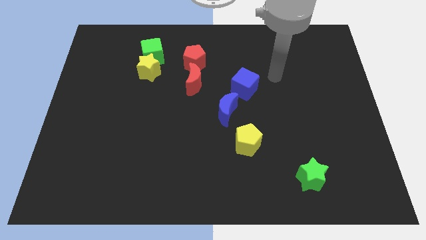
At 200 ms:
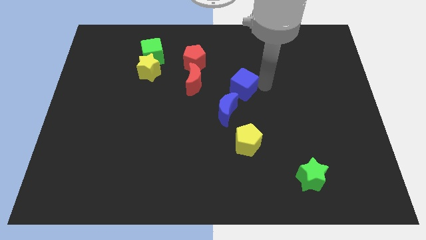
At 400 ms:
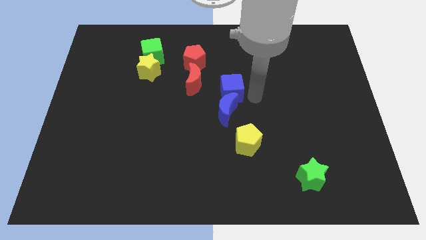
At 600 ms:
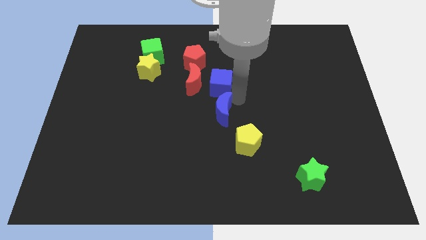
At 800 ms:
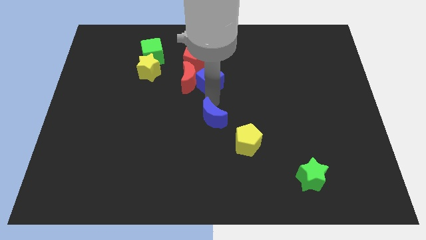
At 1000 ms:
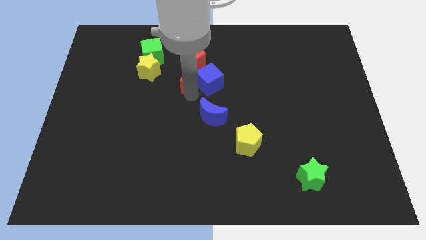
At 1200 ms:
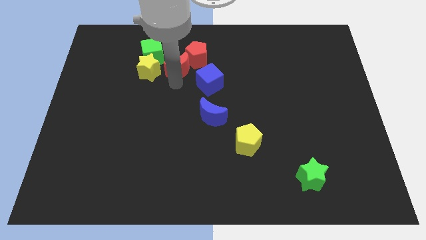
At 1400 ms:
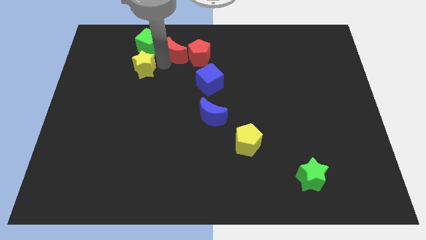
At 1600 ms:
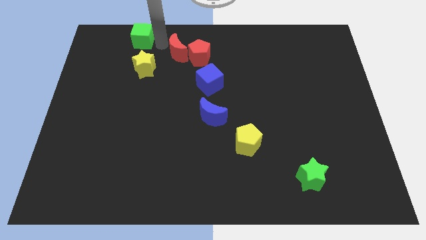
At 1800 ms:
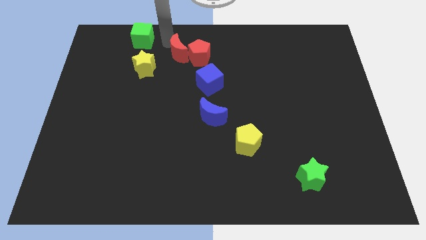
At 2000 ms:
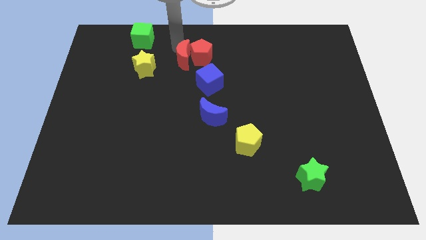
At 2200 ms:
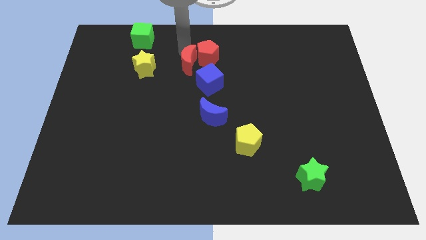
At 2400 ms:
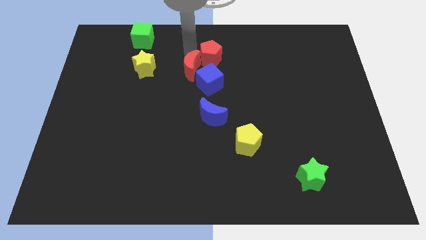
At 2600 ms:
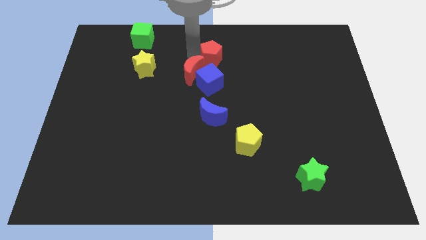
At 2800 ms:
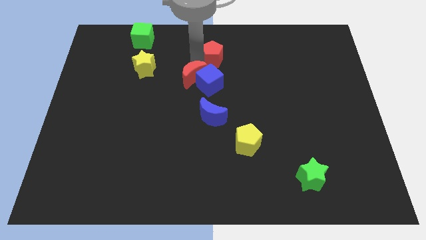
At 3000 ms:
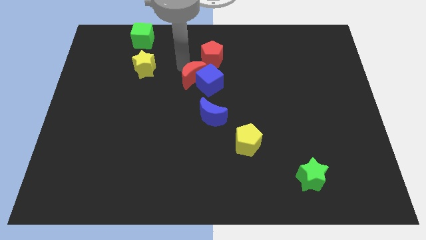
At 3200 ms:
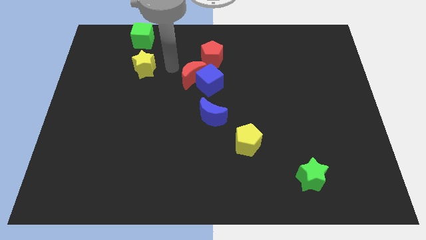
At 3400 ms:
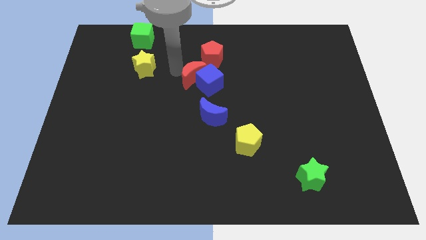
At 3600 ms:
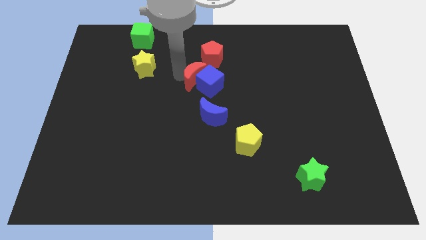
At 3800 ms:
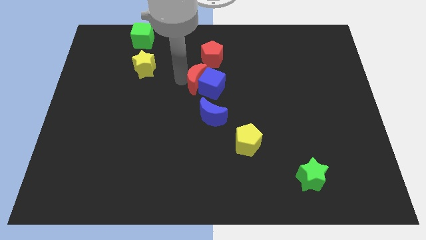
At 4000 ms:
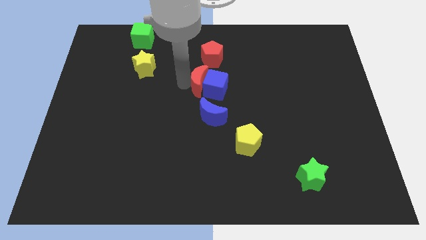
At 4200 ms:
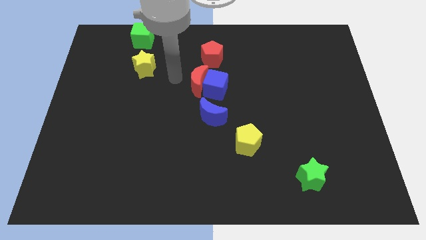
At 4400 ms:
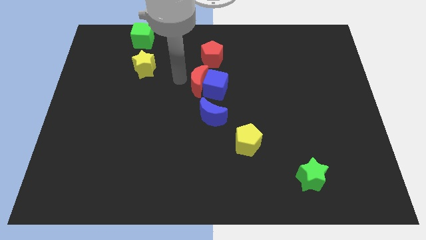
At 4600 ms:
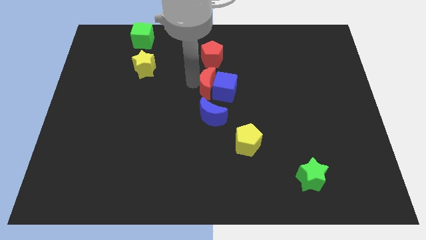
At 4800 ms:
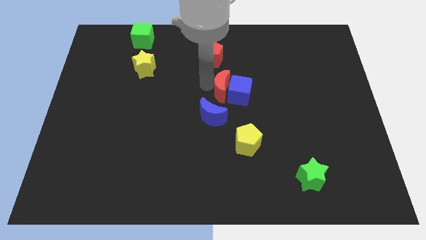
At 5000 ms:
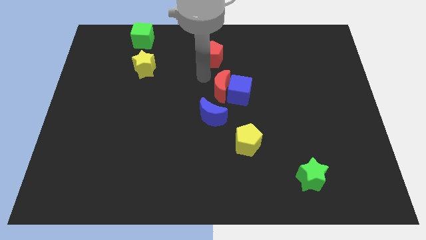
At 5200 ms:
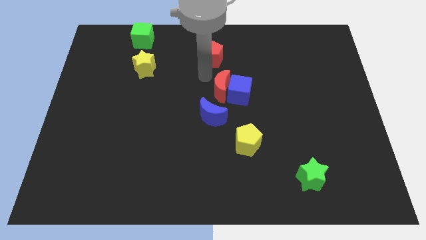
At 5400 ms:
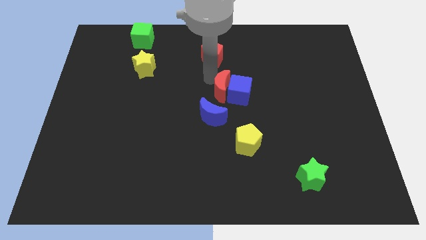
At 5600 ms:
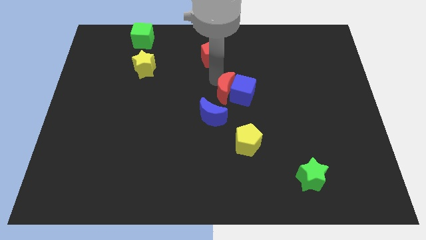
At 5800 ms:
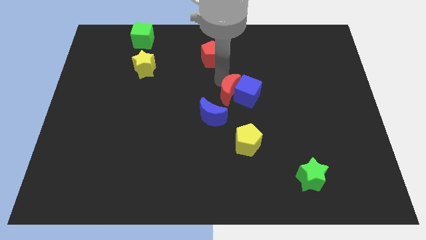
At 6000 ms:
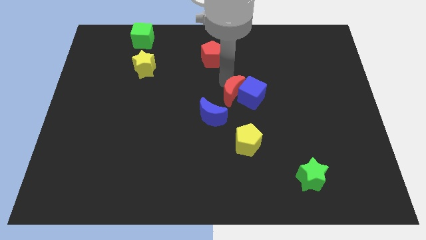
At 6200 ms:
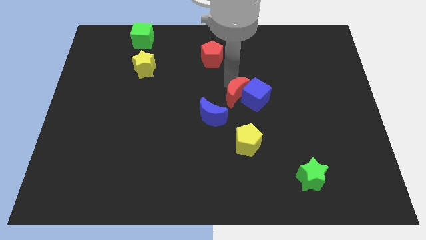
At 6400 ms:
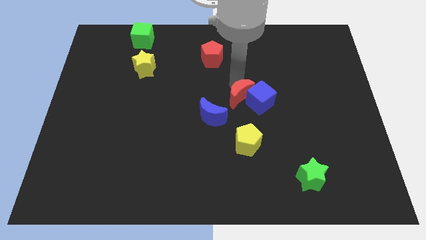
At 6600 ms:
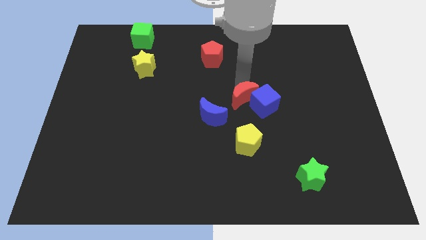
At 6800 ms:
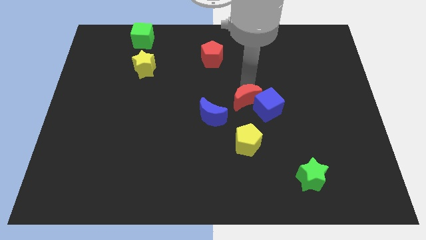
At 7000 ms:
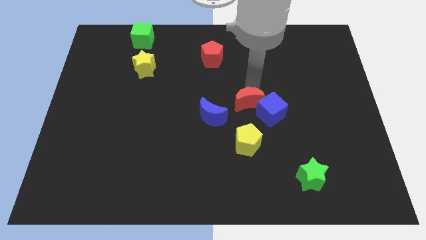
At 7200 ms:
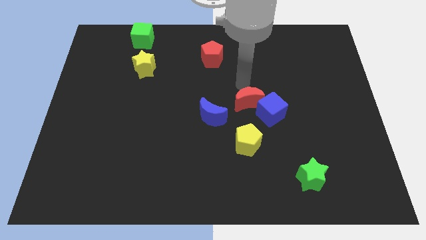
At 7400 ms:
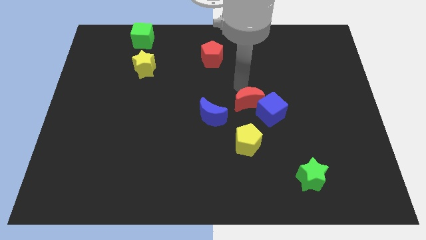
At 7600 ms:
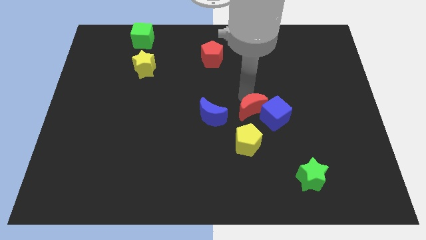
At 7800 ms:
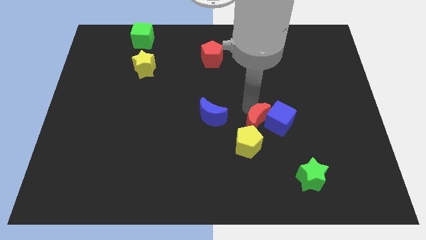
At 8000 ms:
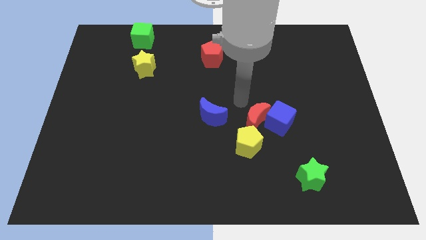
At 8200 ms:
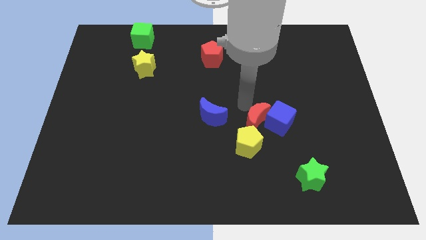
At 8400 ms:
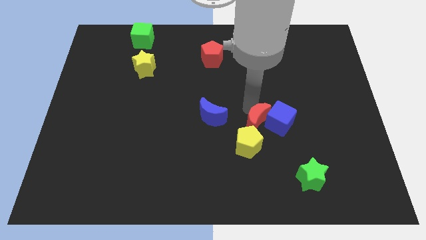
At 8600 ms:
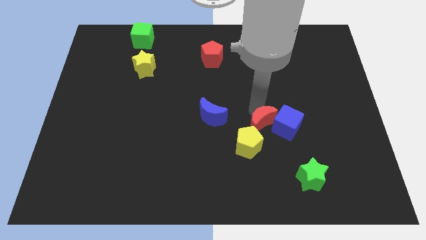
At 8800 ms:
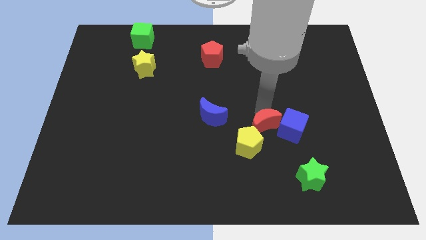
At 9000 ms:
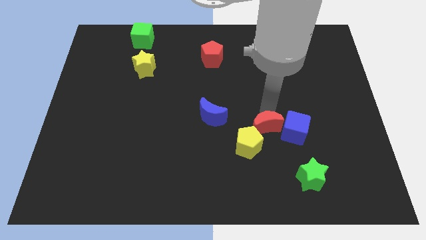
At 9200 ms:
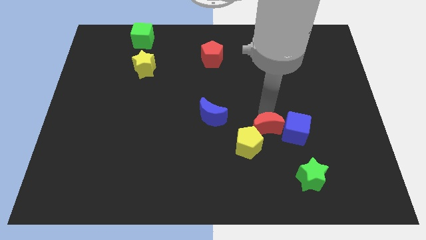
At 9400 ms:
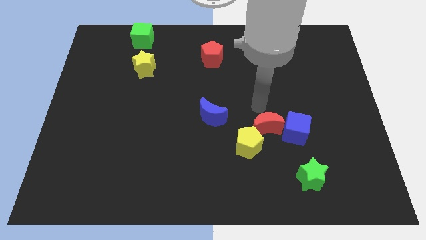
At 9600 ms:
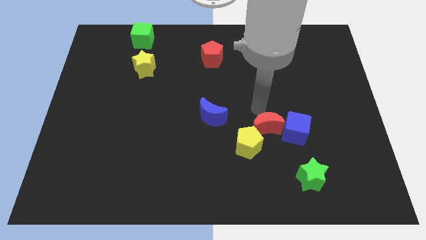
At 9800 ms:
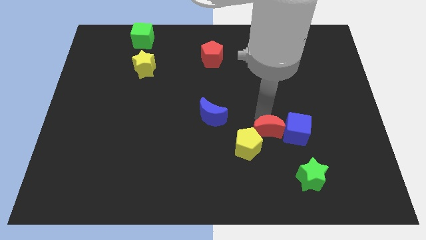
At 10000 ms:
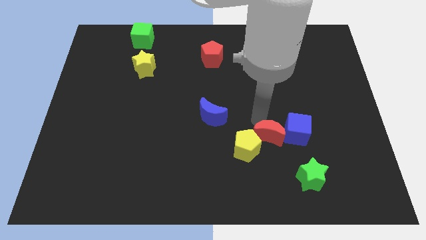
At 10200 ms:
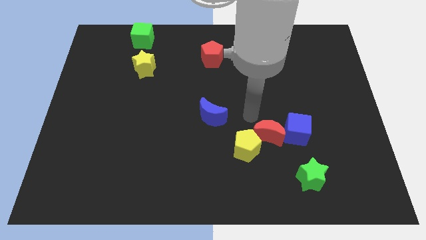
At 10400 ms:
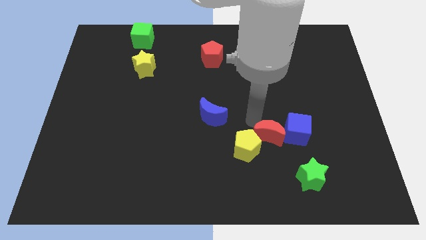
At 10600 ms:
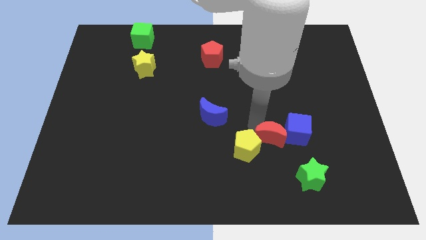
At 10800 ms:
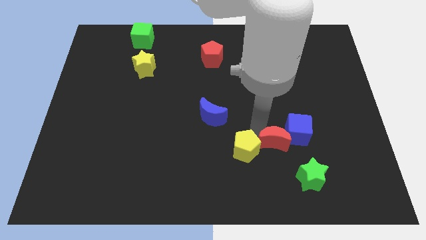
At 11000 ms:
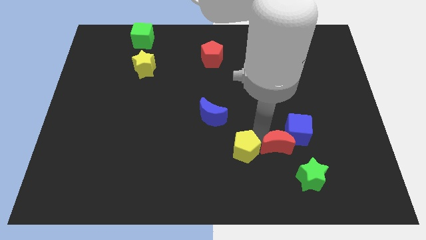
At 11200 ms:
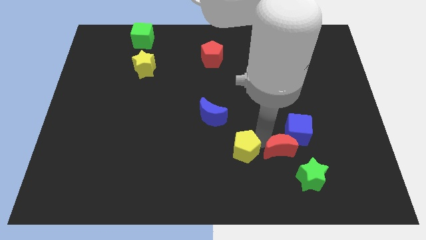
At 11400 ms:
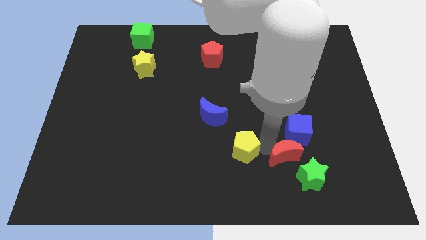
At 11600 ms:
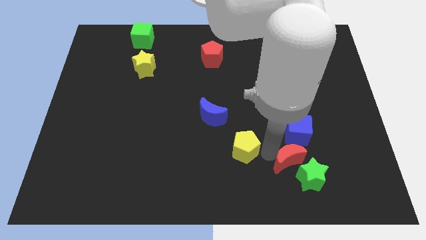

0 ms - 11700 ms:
put the red moon towards the green star

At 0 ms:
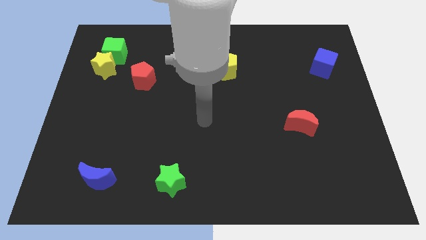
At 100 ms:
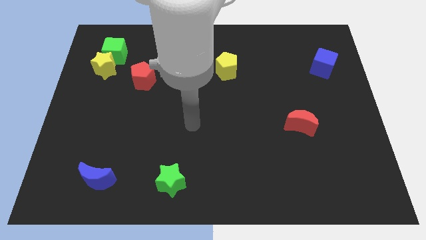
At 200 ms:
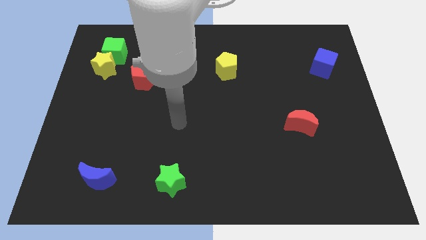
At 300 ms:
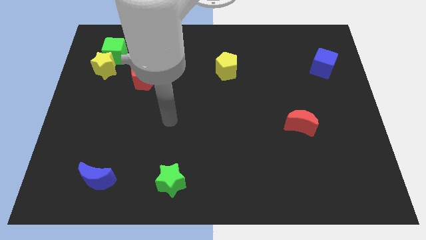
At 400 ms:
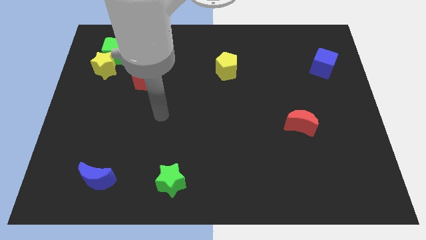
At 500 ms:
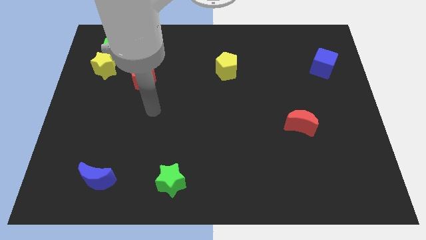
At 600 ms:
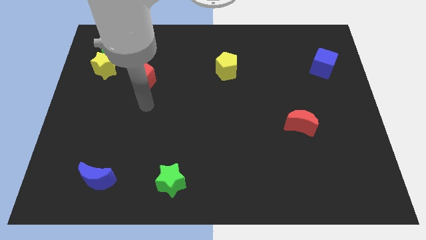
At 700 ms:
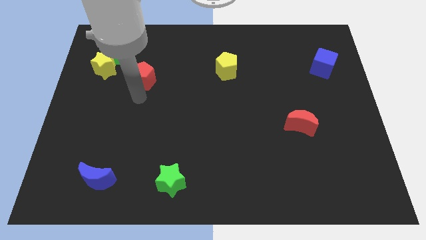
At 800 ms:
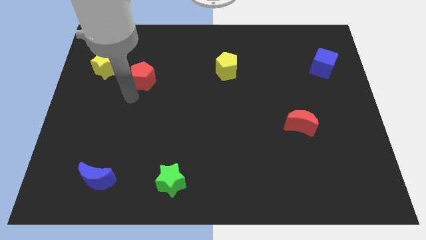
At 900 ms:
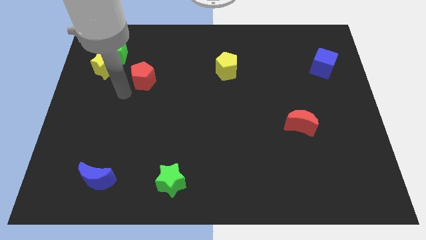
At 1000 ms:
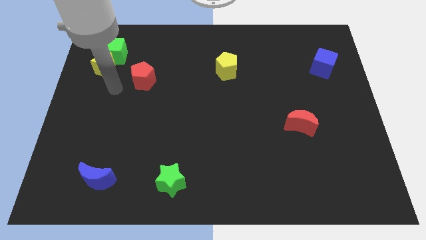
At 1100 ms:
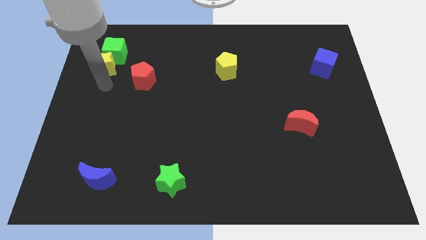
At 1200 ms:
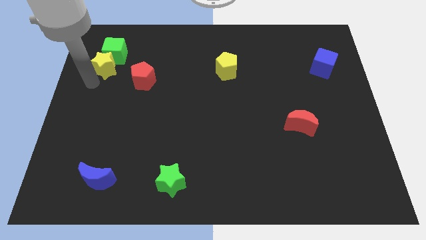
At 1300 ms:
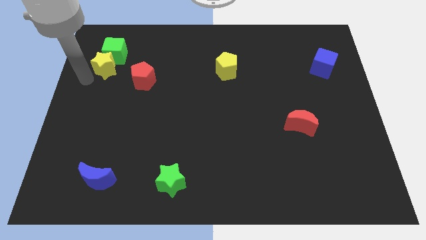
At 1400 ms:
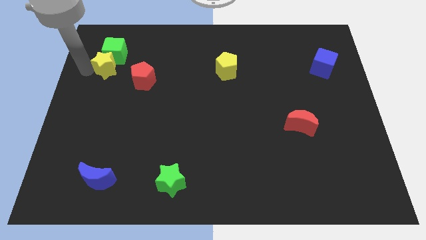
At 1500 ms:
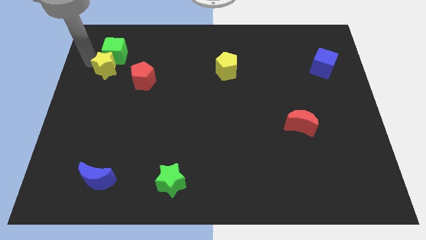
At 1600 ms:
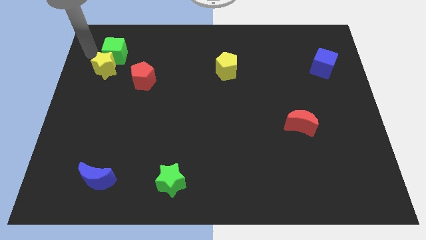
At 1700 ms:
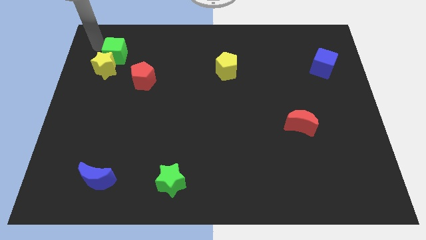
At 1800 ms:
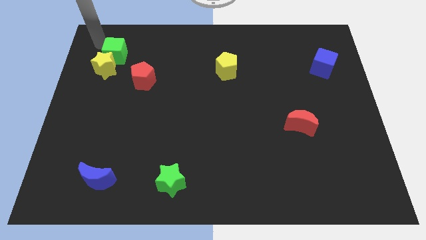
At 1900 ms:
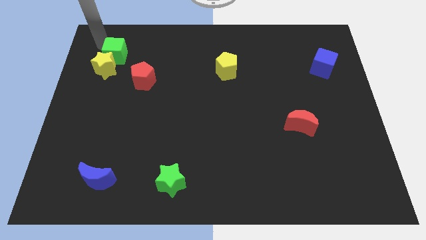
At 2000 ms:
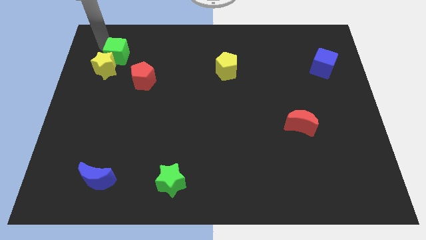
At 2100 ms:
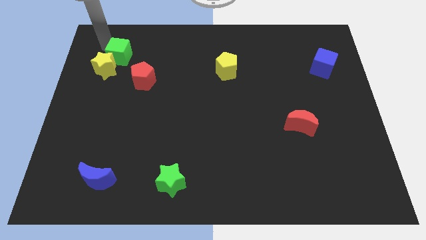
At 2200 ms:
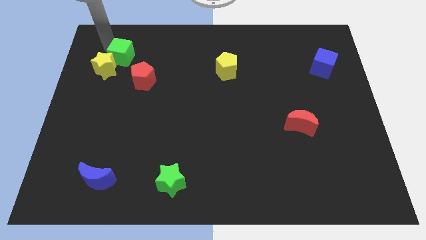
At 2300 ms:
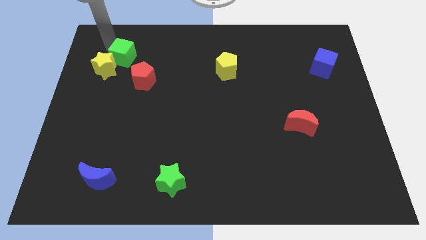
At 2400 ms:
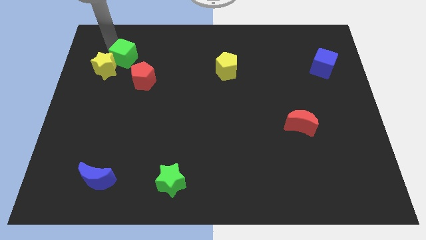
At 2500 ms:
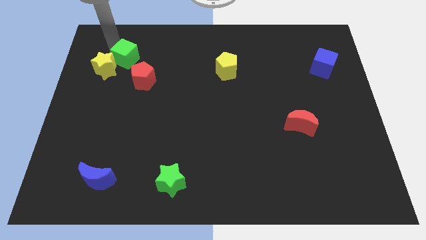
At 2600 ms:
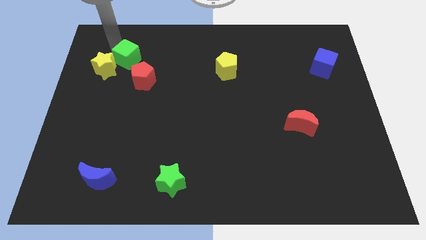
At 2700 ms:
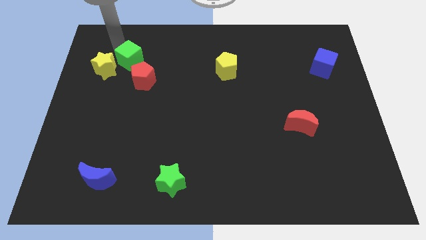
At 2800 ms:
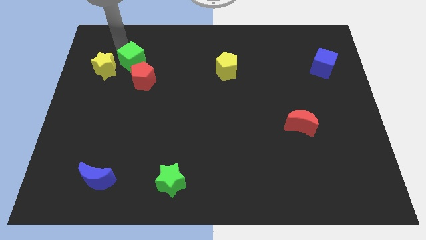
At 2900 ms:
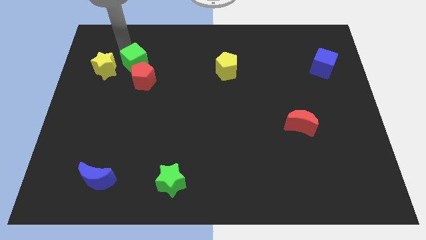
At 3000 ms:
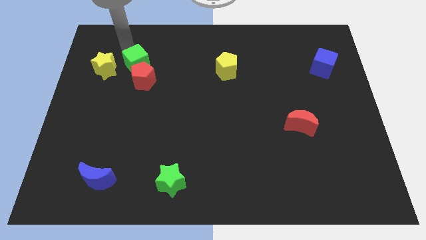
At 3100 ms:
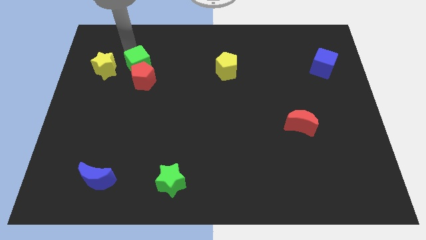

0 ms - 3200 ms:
slide the green cube next to the red pentagon
